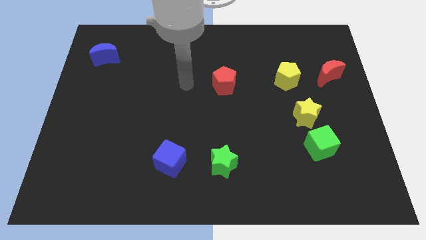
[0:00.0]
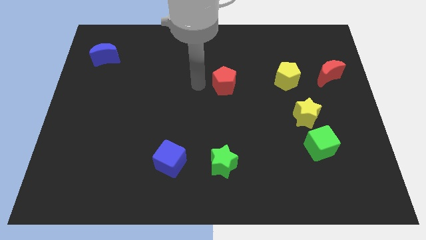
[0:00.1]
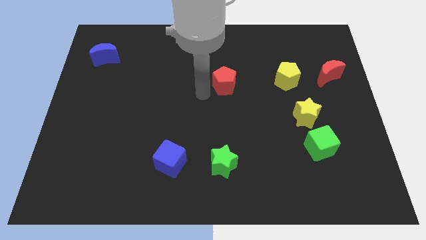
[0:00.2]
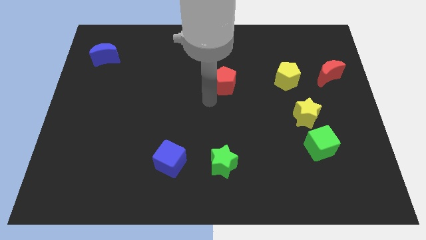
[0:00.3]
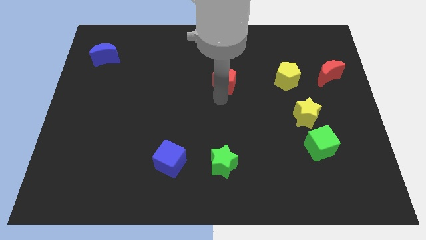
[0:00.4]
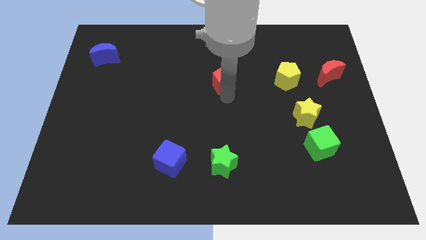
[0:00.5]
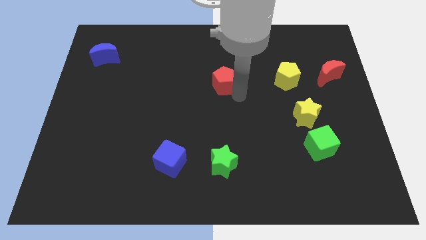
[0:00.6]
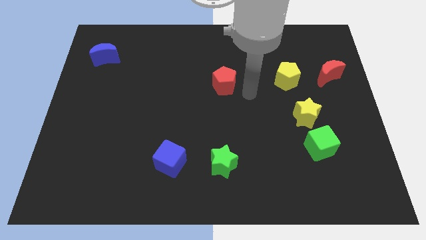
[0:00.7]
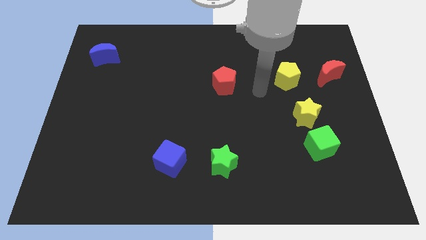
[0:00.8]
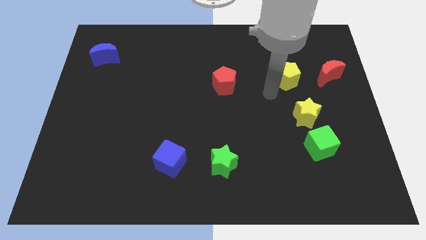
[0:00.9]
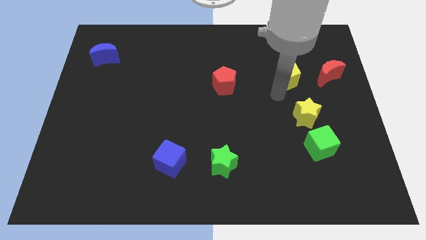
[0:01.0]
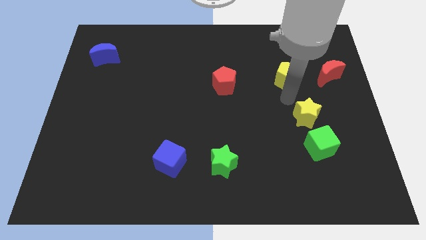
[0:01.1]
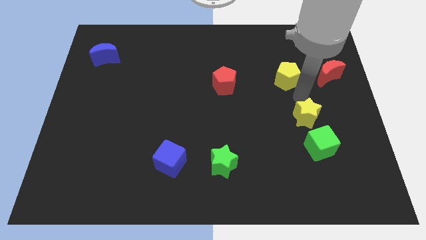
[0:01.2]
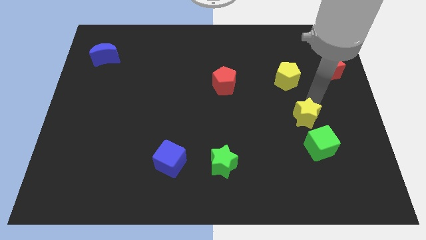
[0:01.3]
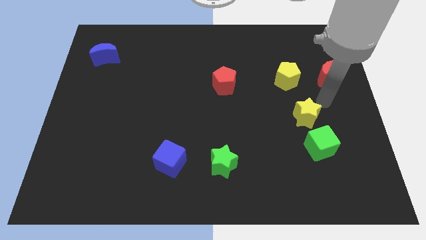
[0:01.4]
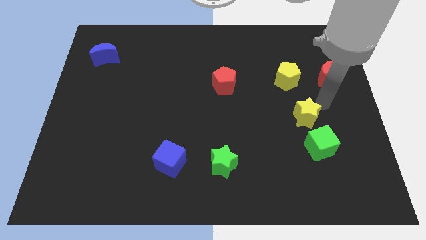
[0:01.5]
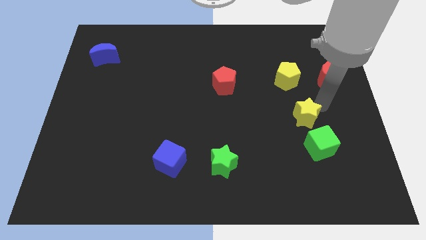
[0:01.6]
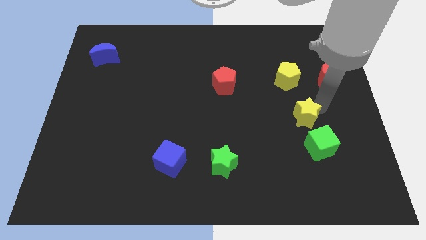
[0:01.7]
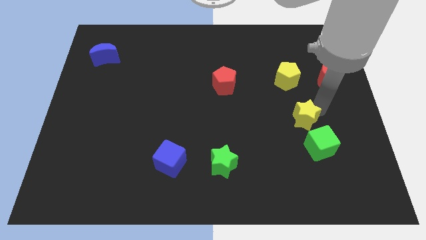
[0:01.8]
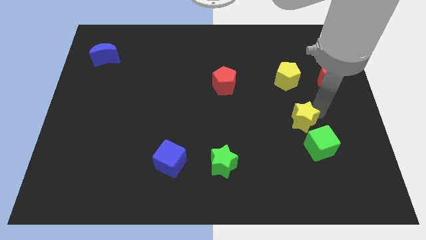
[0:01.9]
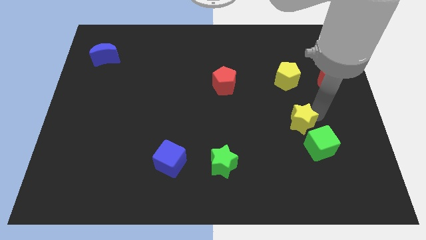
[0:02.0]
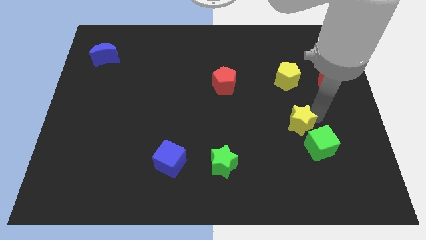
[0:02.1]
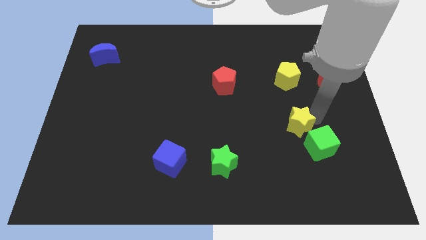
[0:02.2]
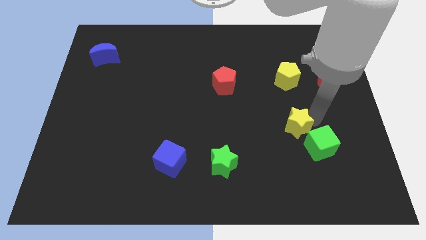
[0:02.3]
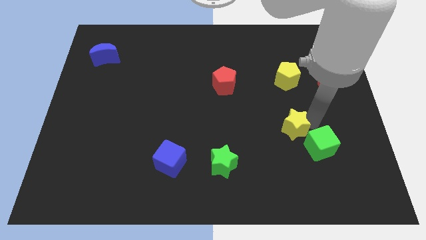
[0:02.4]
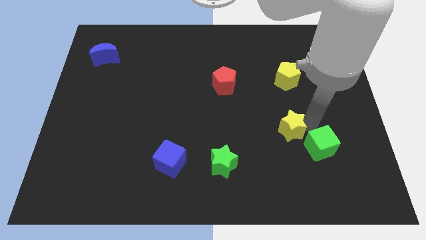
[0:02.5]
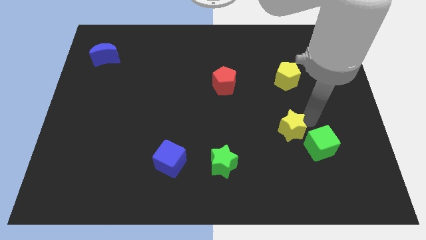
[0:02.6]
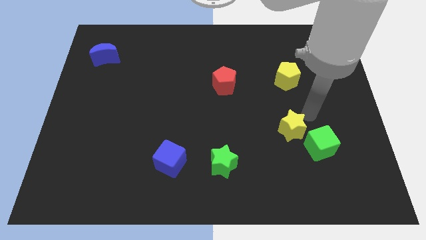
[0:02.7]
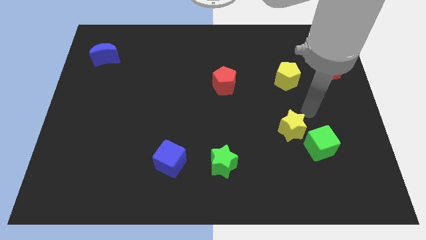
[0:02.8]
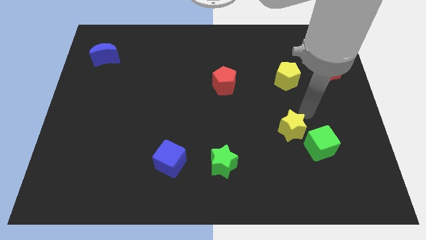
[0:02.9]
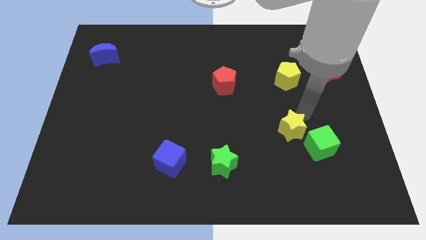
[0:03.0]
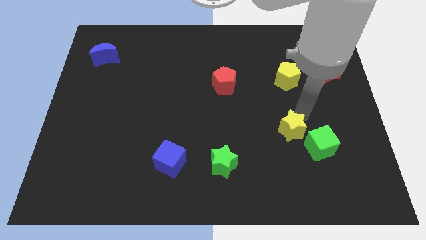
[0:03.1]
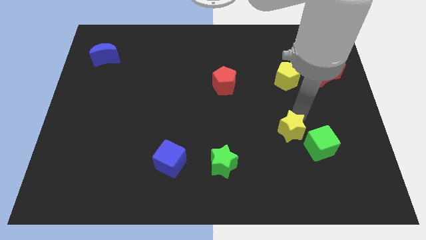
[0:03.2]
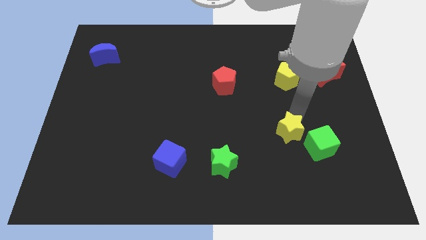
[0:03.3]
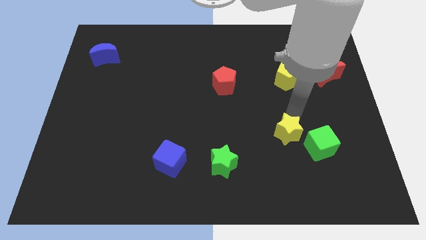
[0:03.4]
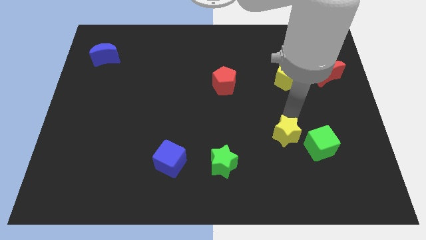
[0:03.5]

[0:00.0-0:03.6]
slightly move the yellow star downwards and then to the left

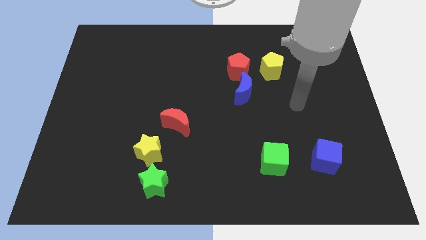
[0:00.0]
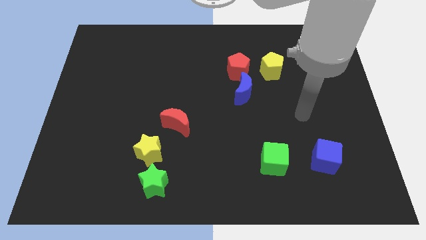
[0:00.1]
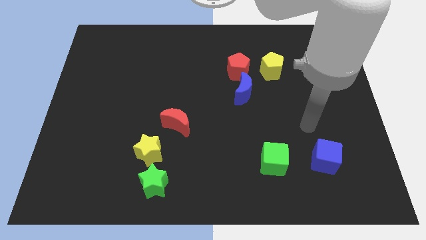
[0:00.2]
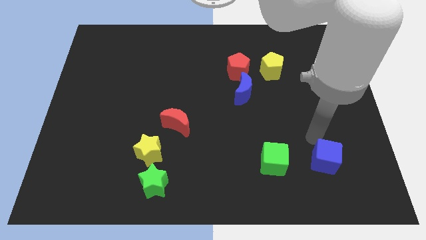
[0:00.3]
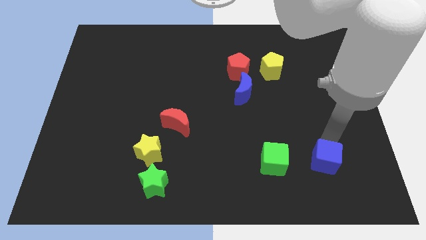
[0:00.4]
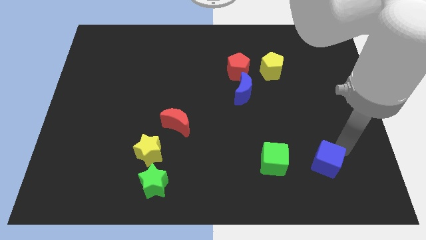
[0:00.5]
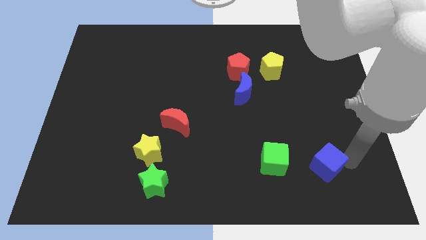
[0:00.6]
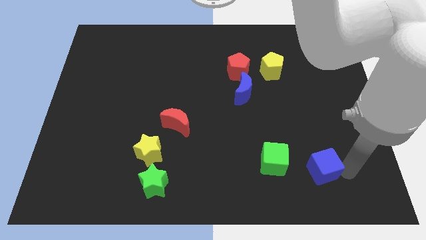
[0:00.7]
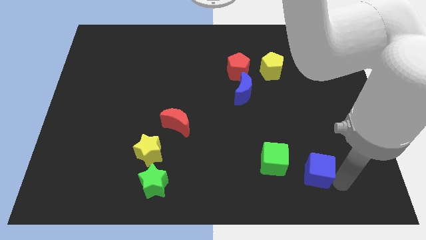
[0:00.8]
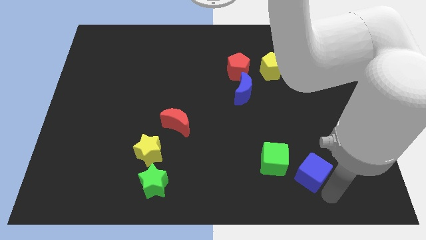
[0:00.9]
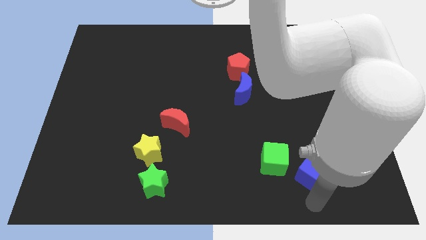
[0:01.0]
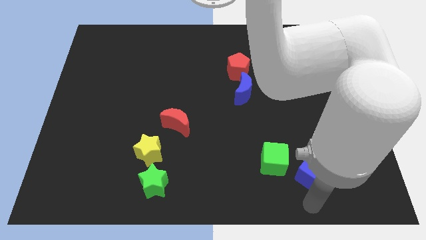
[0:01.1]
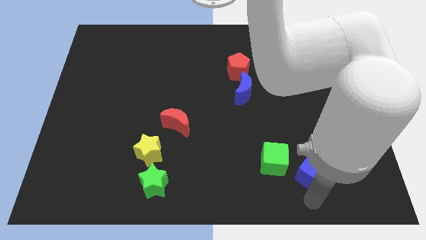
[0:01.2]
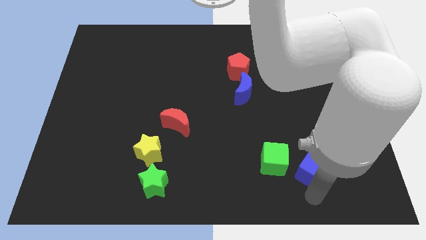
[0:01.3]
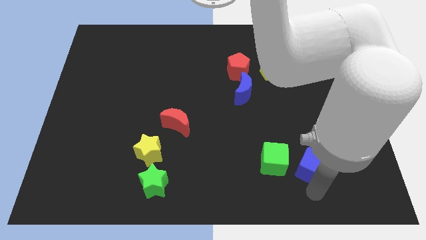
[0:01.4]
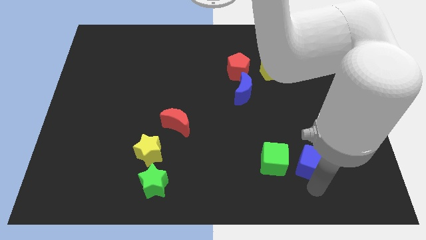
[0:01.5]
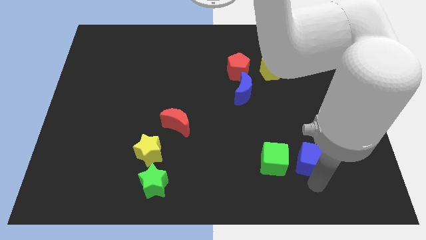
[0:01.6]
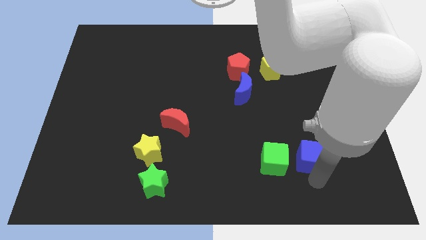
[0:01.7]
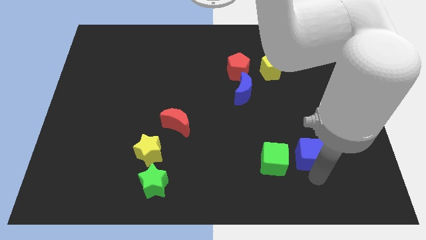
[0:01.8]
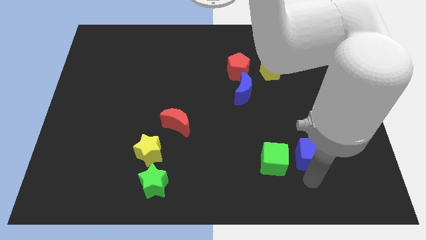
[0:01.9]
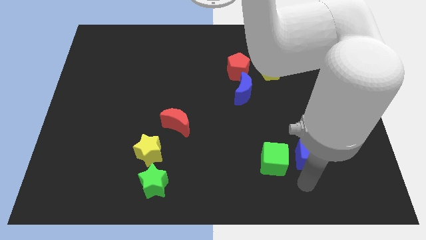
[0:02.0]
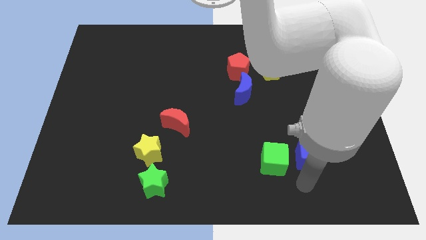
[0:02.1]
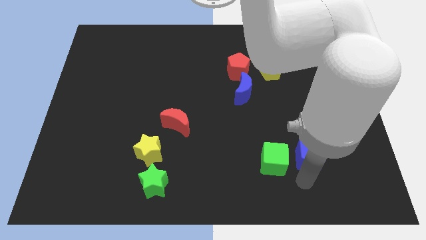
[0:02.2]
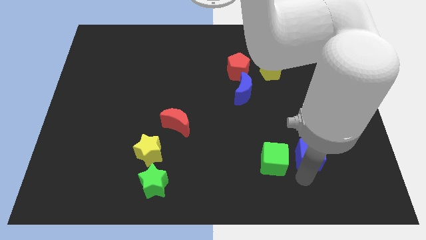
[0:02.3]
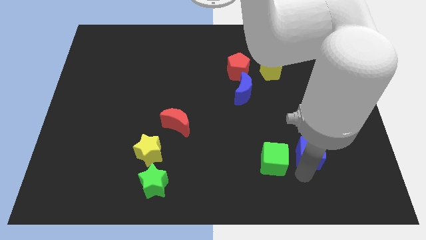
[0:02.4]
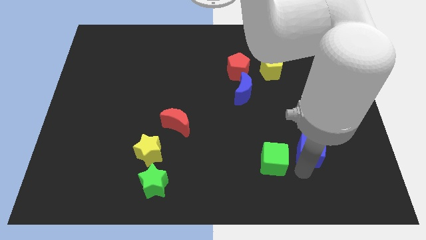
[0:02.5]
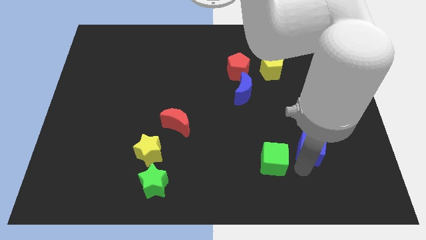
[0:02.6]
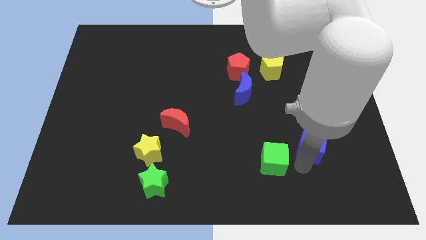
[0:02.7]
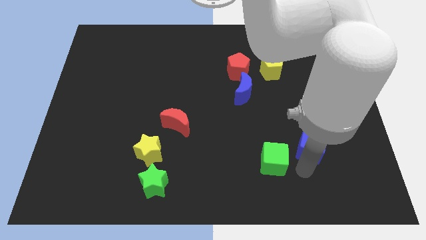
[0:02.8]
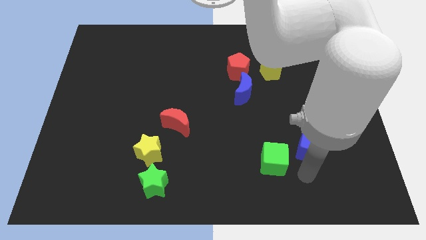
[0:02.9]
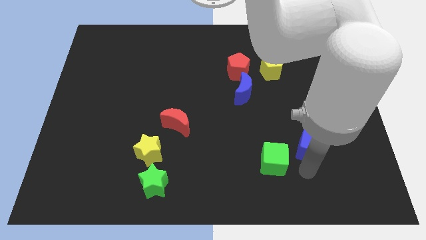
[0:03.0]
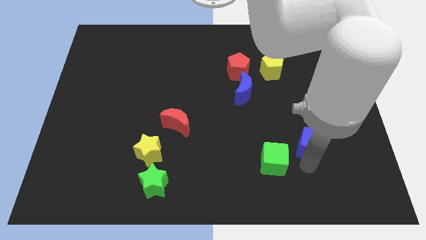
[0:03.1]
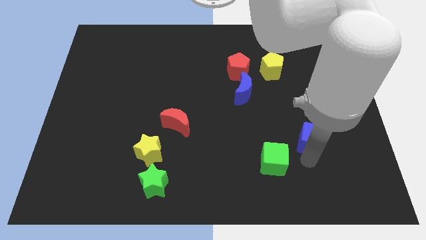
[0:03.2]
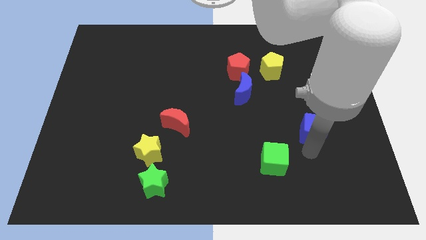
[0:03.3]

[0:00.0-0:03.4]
slightly move the blue cube up

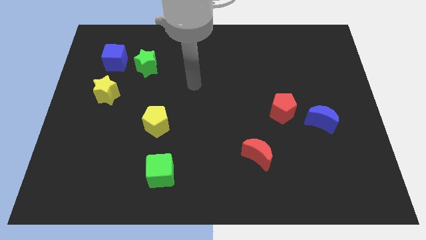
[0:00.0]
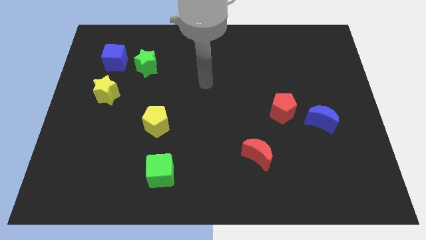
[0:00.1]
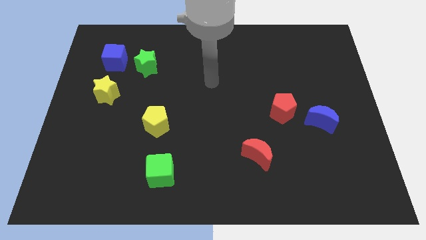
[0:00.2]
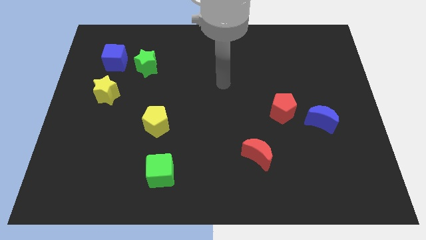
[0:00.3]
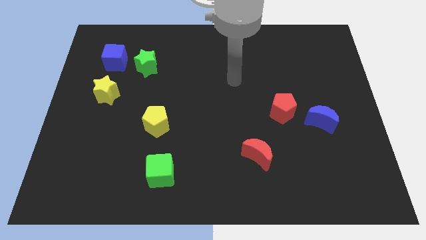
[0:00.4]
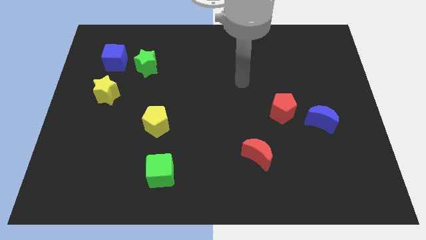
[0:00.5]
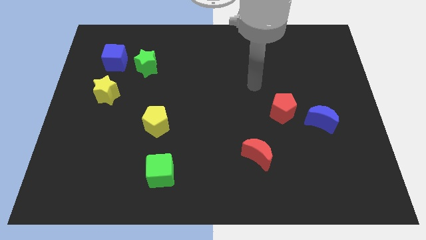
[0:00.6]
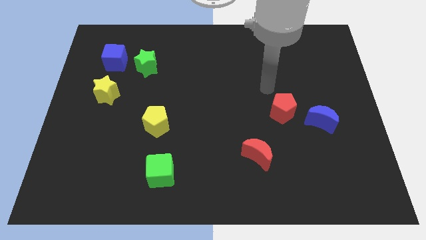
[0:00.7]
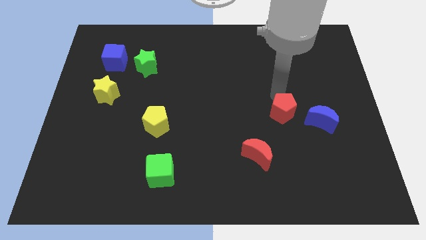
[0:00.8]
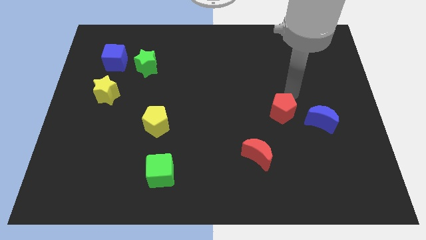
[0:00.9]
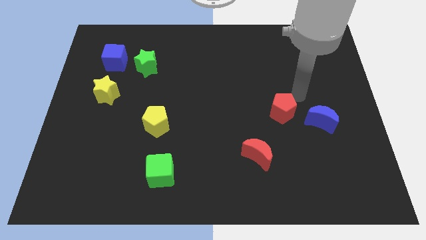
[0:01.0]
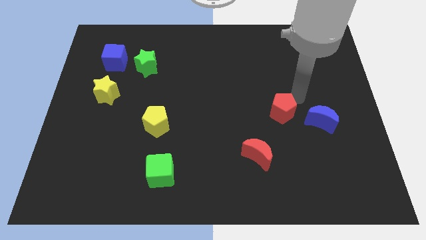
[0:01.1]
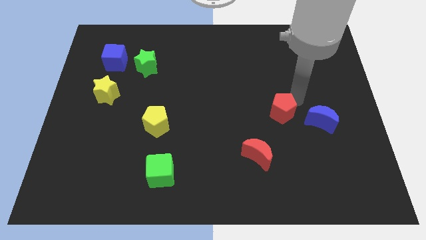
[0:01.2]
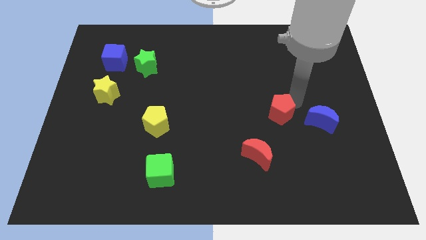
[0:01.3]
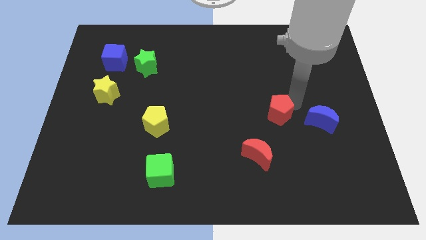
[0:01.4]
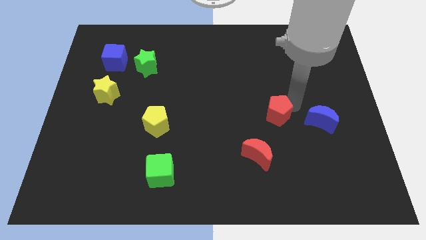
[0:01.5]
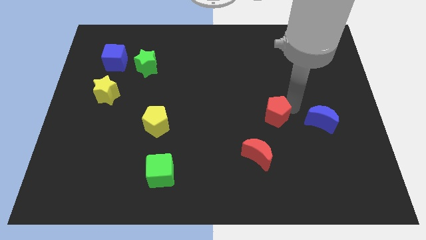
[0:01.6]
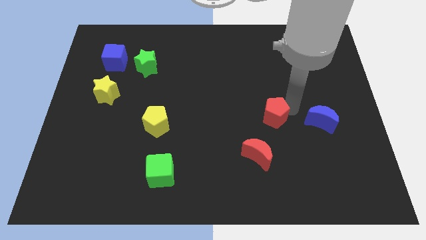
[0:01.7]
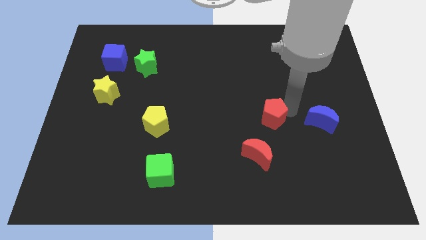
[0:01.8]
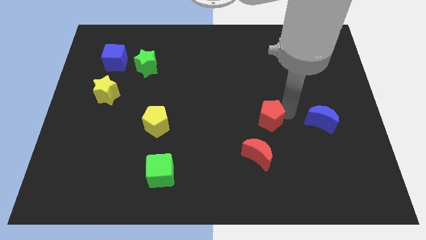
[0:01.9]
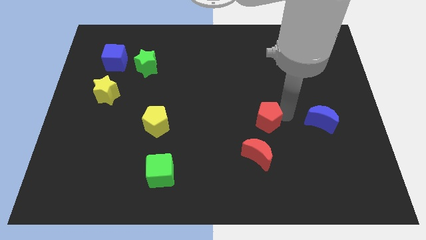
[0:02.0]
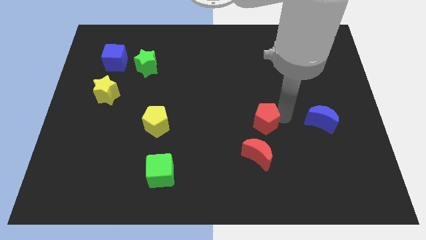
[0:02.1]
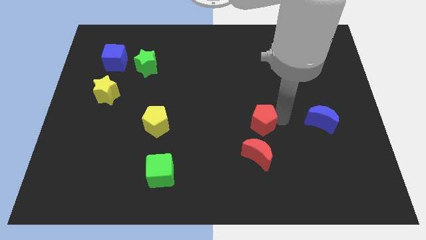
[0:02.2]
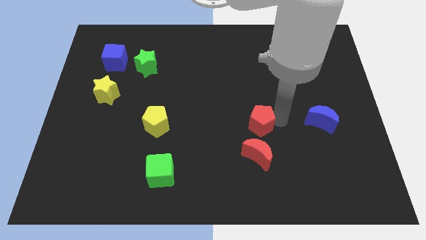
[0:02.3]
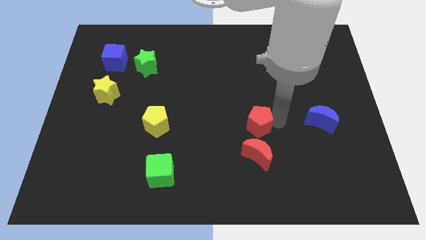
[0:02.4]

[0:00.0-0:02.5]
move the red pentagon a little bit diagonally down and to the left
